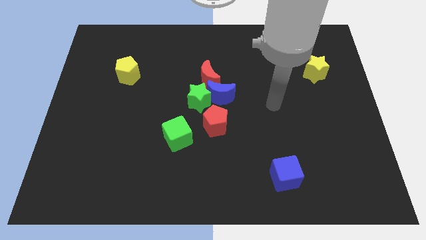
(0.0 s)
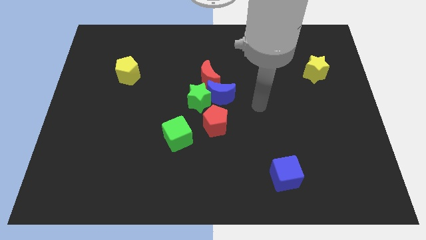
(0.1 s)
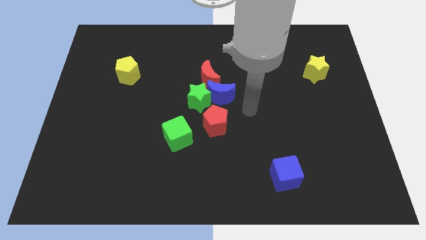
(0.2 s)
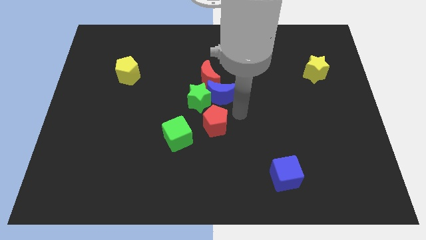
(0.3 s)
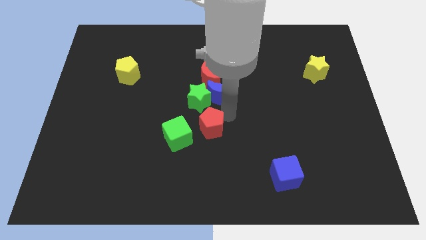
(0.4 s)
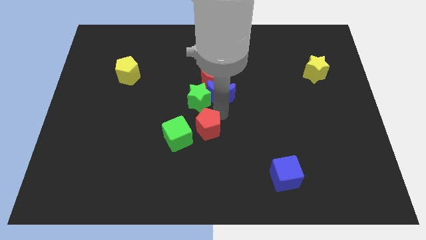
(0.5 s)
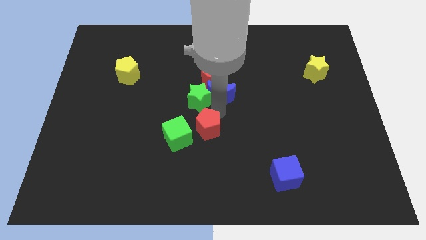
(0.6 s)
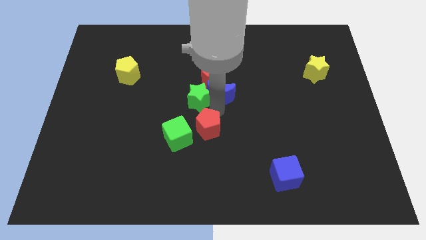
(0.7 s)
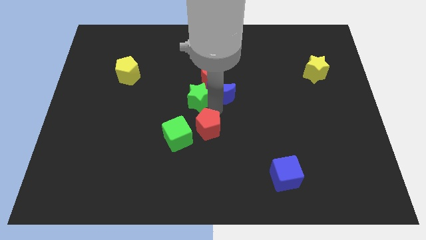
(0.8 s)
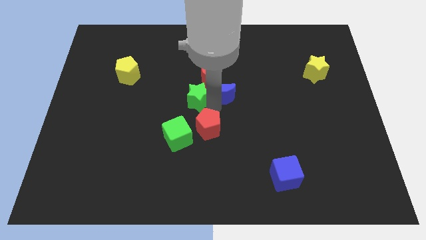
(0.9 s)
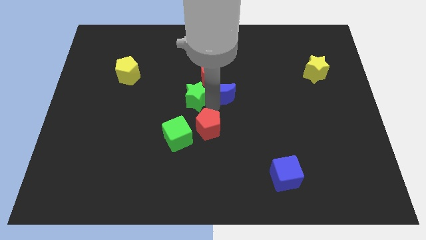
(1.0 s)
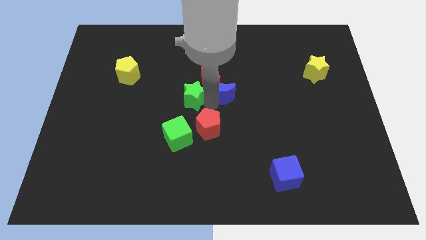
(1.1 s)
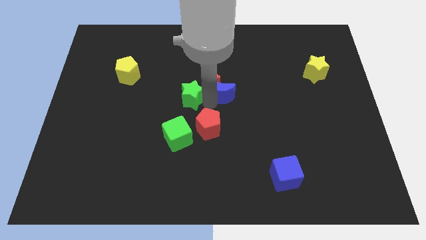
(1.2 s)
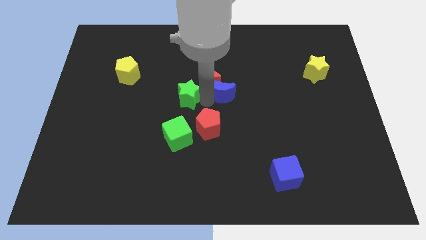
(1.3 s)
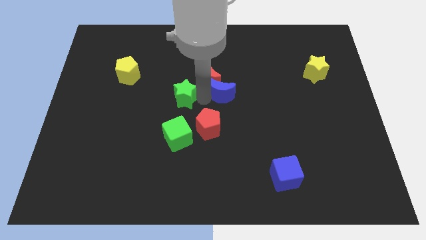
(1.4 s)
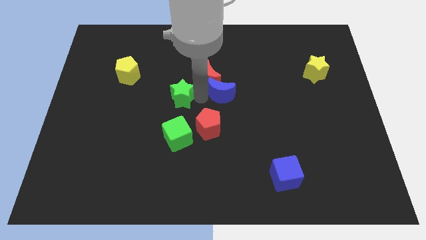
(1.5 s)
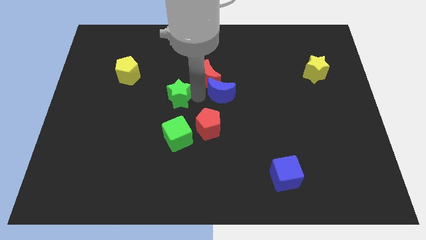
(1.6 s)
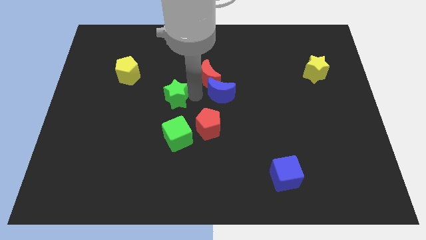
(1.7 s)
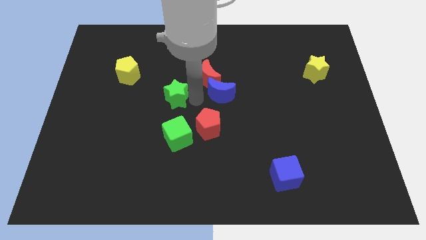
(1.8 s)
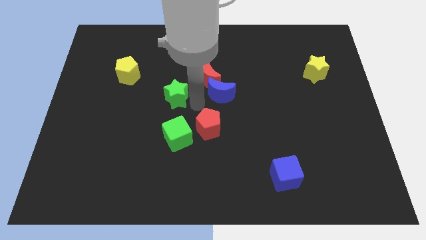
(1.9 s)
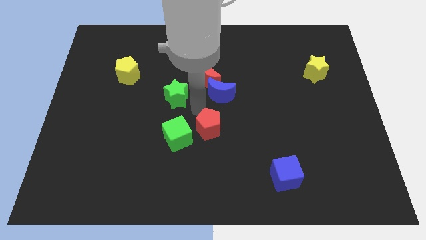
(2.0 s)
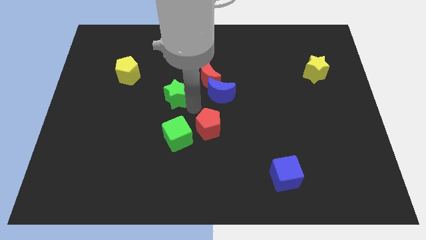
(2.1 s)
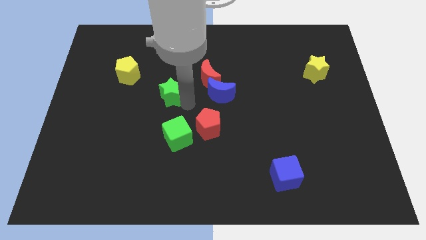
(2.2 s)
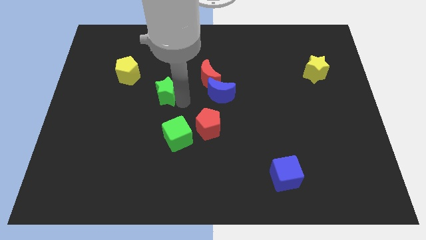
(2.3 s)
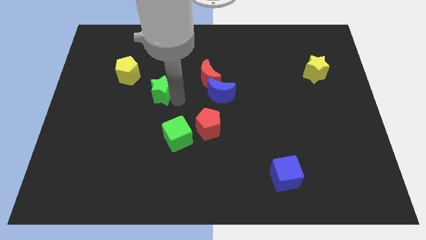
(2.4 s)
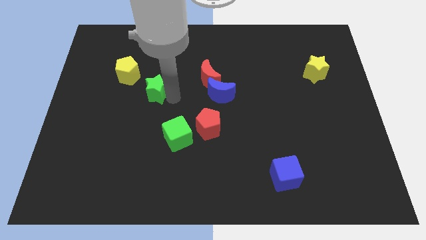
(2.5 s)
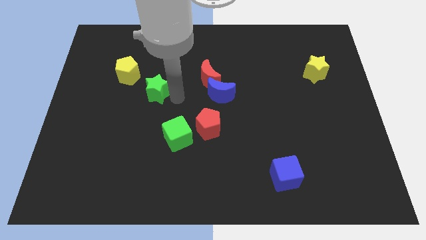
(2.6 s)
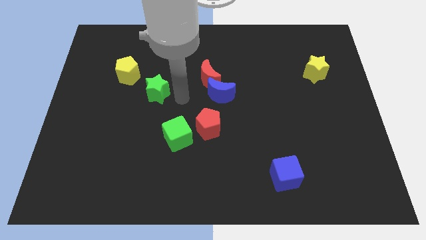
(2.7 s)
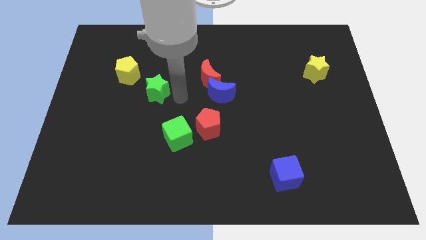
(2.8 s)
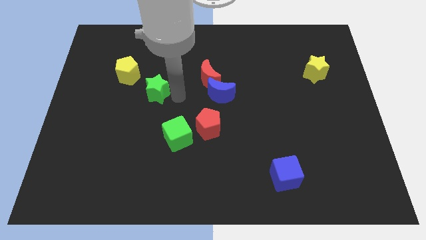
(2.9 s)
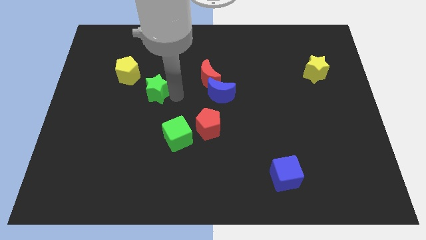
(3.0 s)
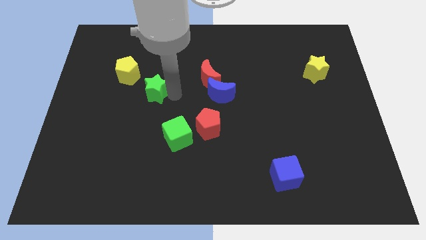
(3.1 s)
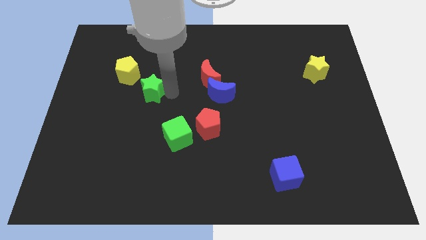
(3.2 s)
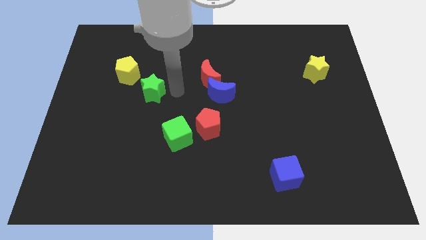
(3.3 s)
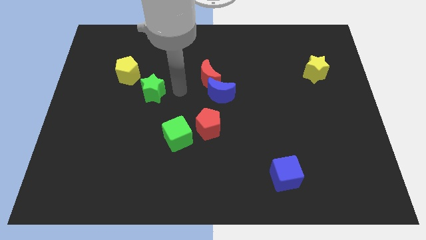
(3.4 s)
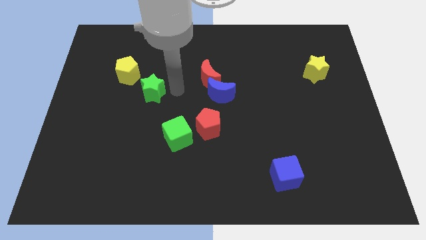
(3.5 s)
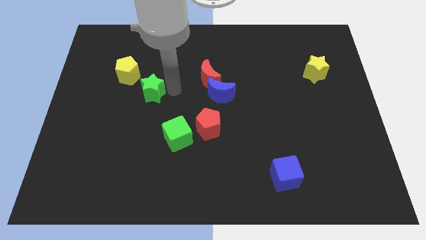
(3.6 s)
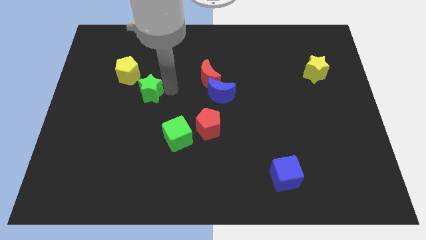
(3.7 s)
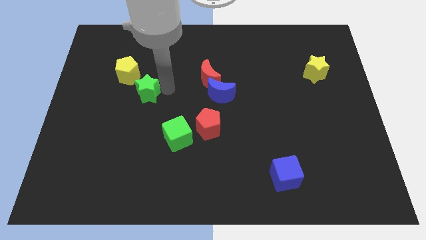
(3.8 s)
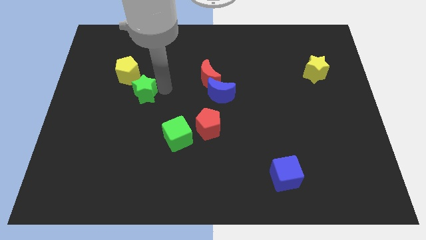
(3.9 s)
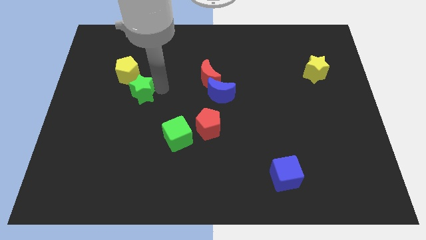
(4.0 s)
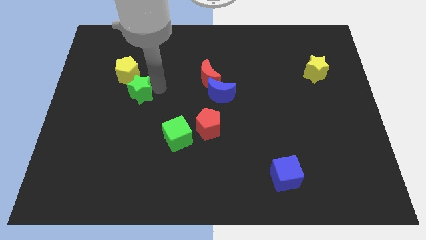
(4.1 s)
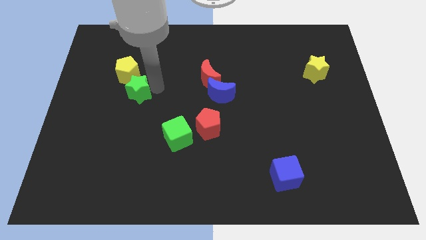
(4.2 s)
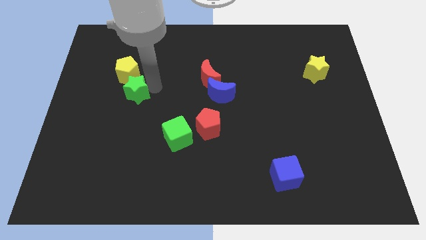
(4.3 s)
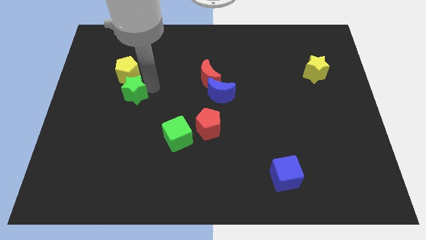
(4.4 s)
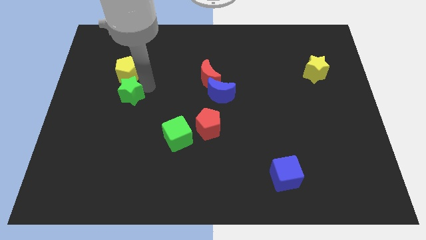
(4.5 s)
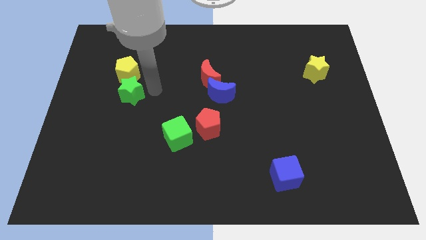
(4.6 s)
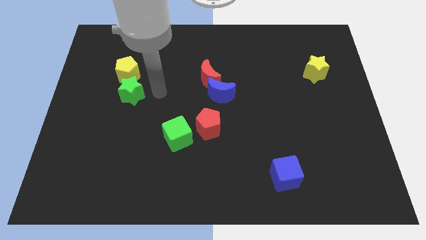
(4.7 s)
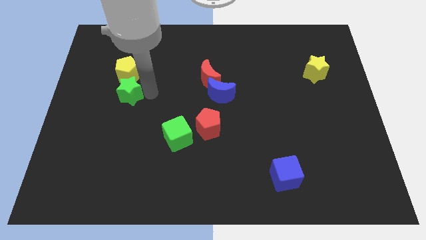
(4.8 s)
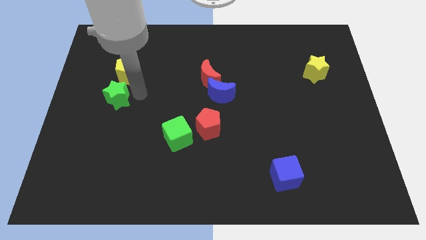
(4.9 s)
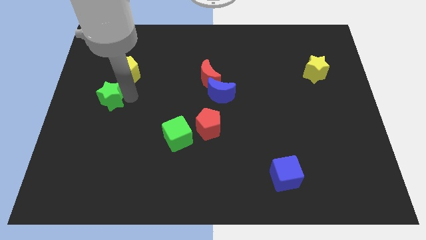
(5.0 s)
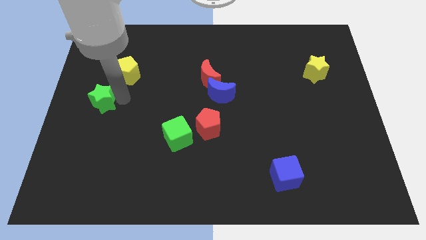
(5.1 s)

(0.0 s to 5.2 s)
put the green star to the left side

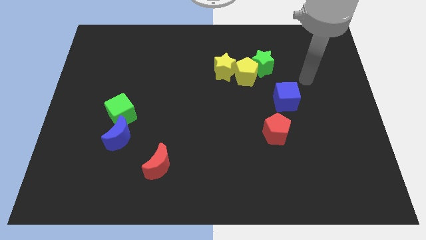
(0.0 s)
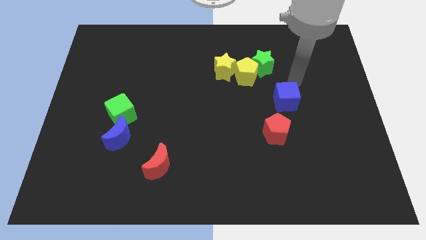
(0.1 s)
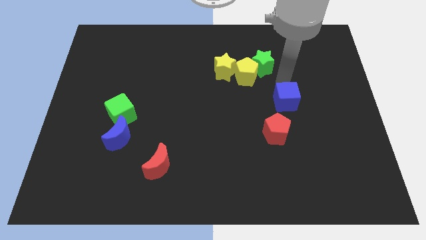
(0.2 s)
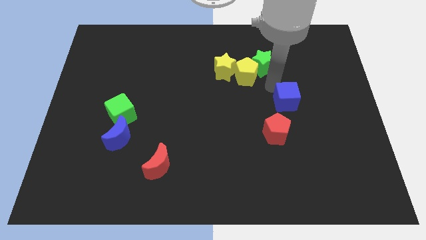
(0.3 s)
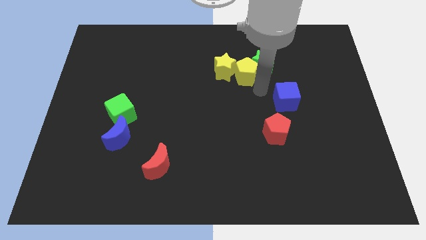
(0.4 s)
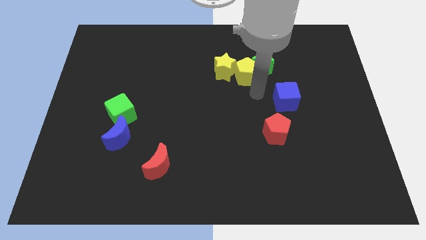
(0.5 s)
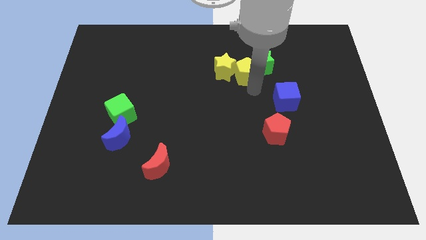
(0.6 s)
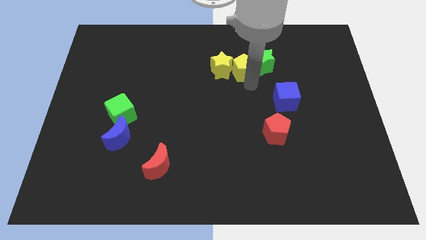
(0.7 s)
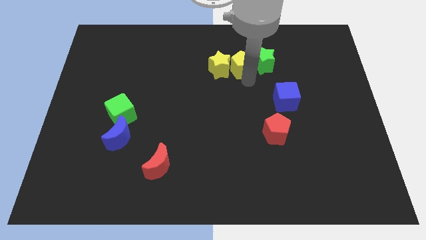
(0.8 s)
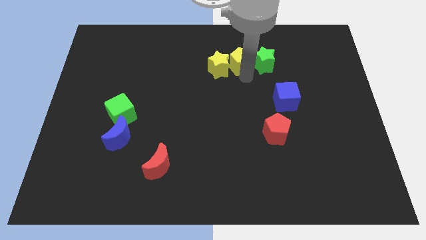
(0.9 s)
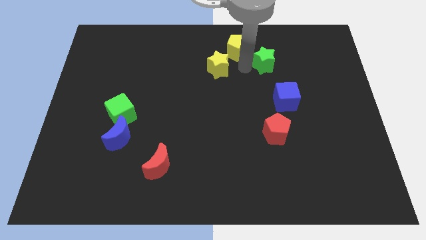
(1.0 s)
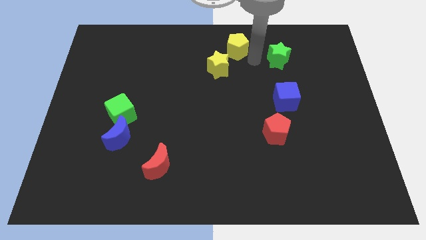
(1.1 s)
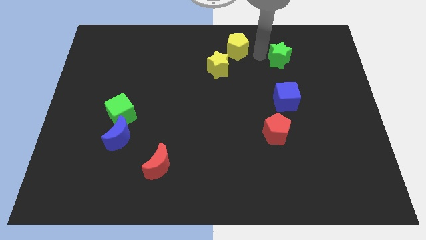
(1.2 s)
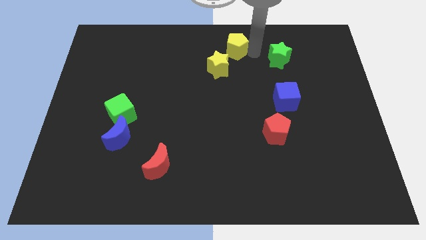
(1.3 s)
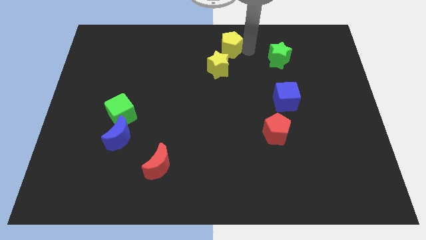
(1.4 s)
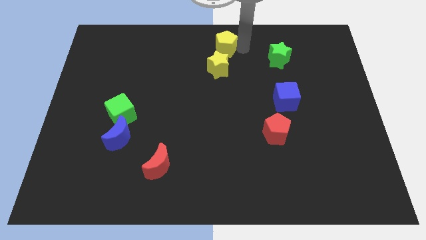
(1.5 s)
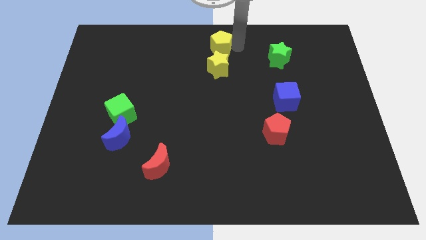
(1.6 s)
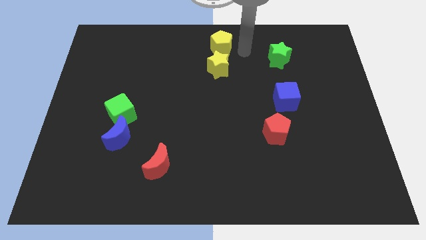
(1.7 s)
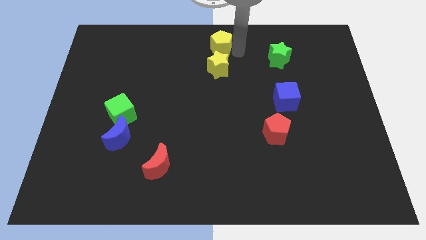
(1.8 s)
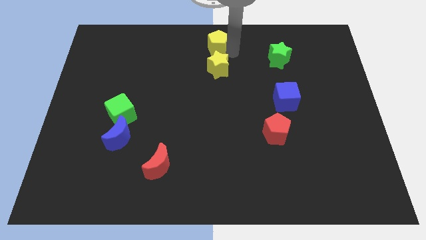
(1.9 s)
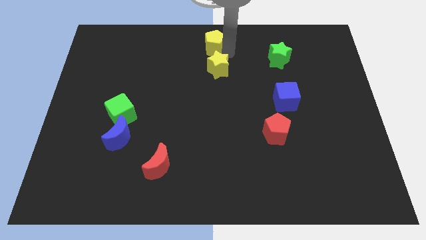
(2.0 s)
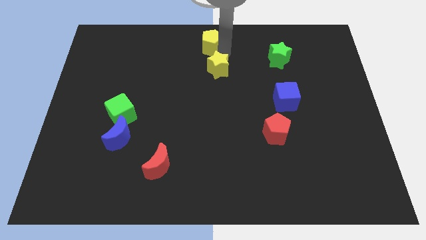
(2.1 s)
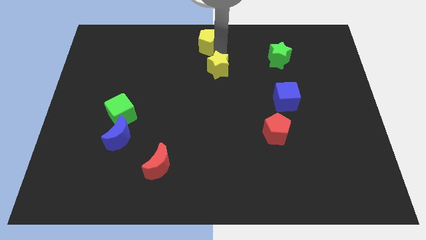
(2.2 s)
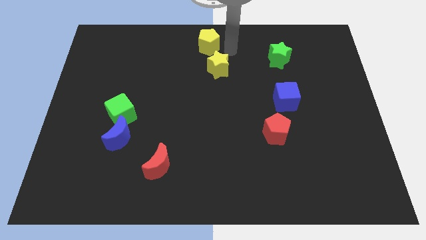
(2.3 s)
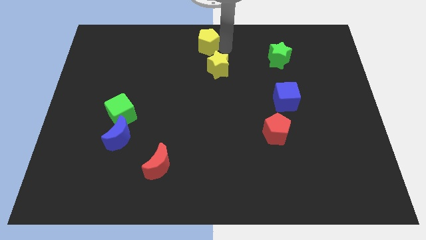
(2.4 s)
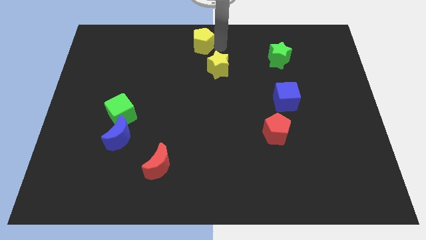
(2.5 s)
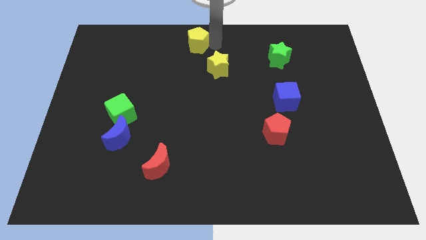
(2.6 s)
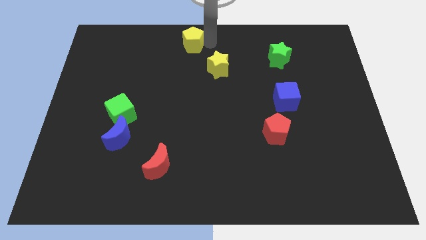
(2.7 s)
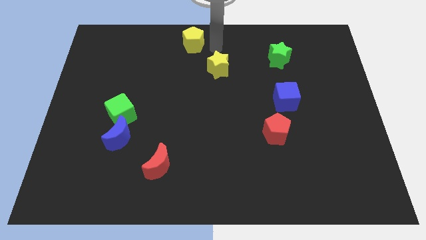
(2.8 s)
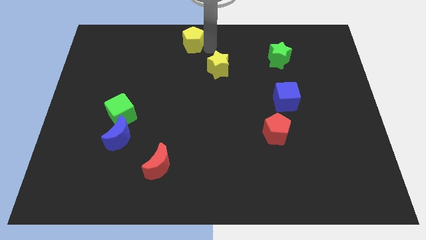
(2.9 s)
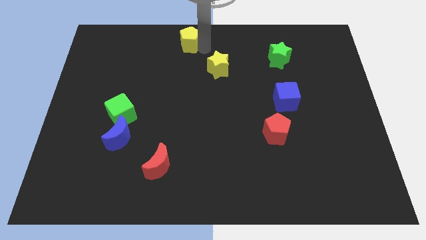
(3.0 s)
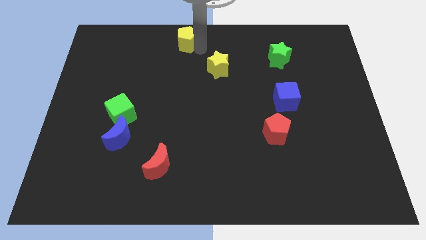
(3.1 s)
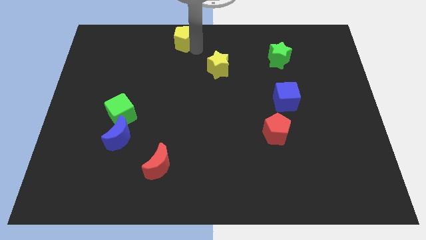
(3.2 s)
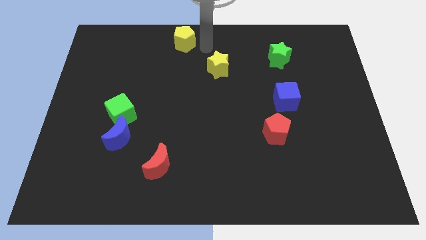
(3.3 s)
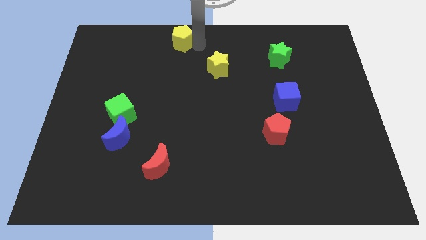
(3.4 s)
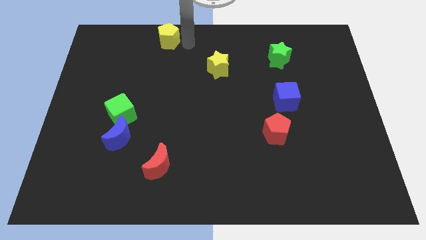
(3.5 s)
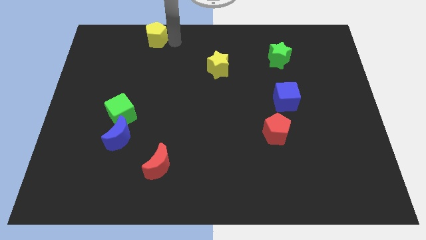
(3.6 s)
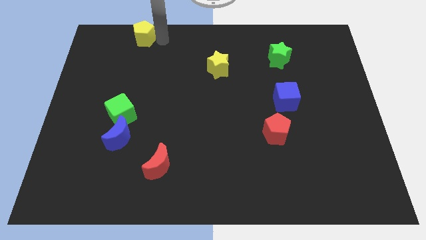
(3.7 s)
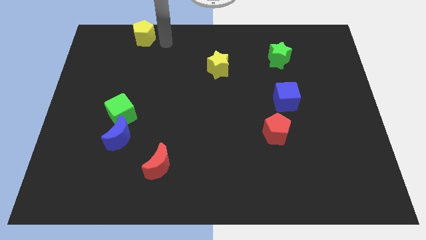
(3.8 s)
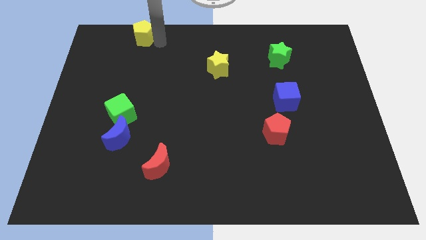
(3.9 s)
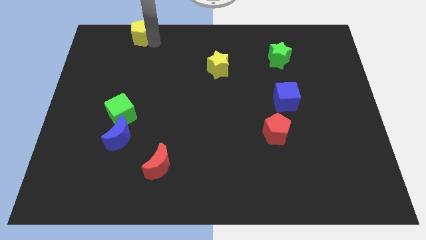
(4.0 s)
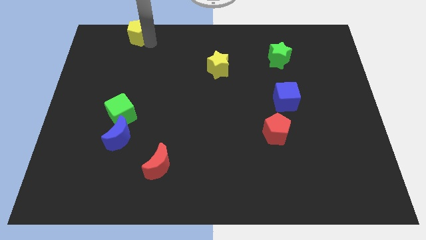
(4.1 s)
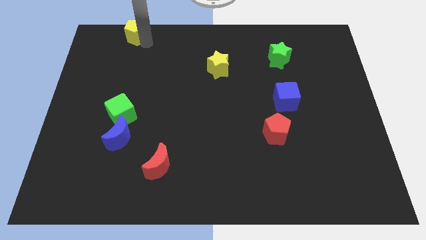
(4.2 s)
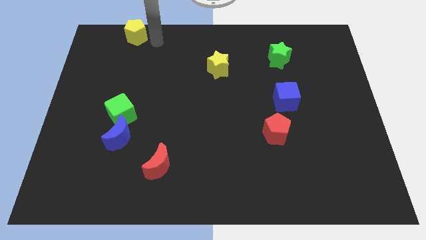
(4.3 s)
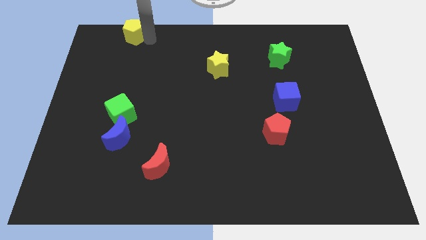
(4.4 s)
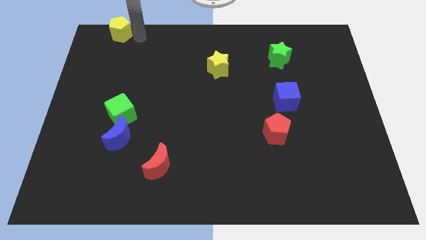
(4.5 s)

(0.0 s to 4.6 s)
put the yellow pentagon to the upper left corner
